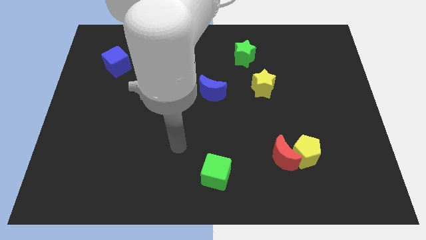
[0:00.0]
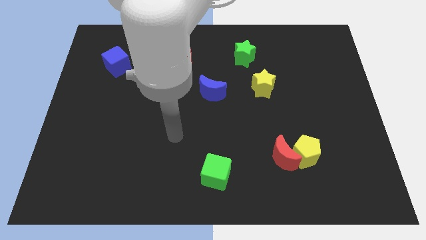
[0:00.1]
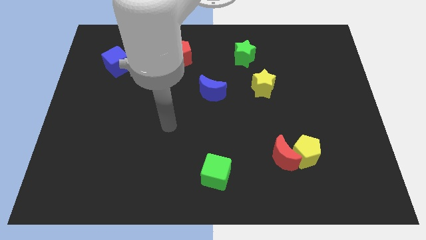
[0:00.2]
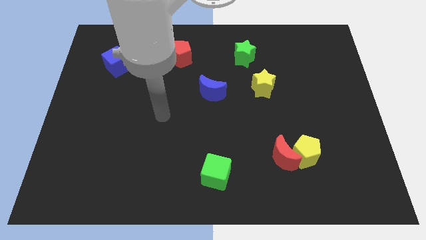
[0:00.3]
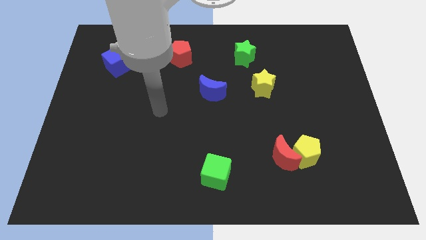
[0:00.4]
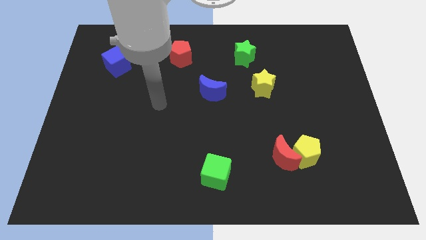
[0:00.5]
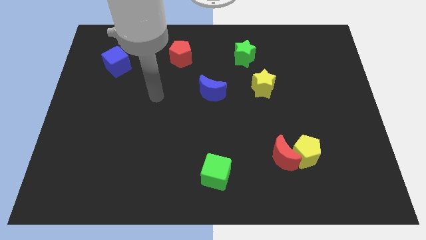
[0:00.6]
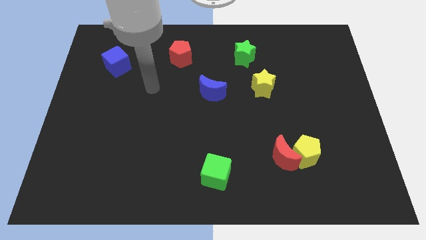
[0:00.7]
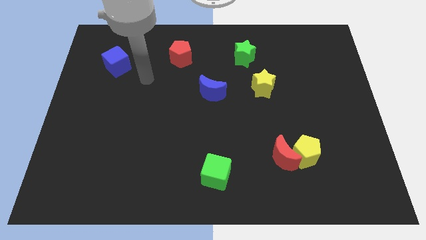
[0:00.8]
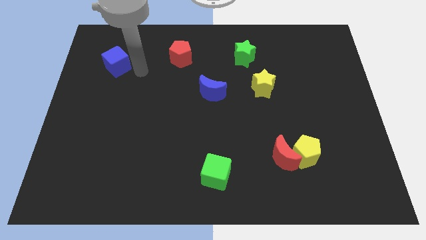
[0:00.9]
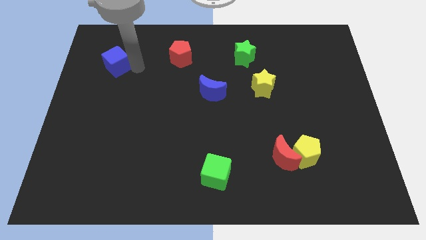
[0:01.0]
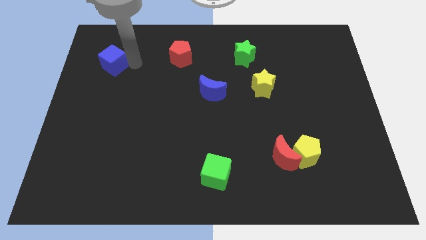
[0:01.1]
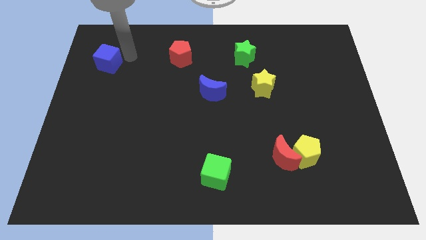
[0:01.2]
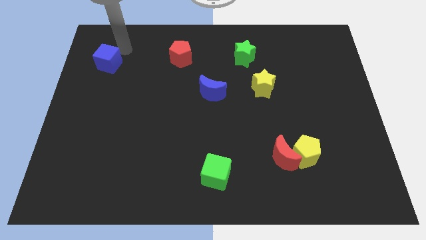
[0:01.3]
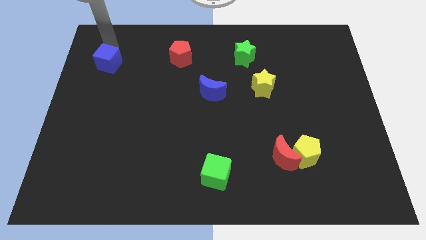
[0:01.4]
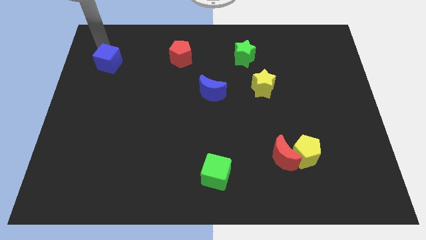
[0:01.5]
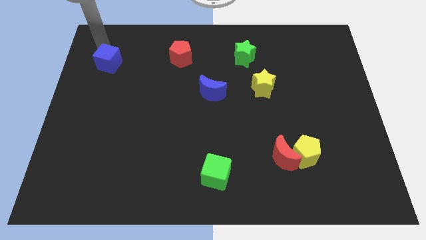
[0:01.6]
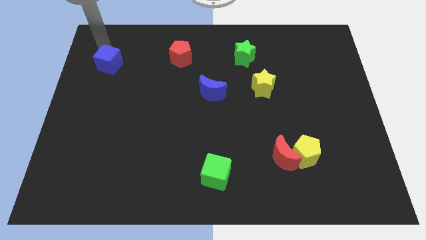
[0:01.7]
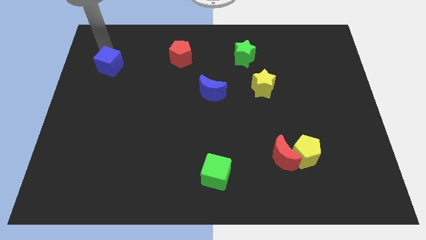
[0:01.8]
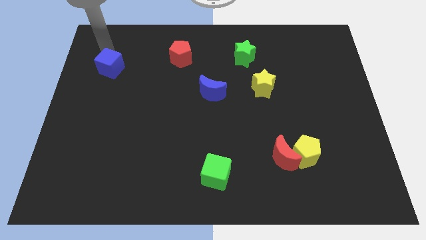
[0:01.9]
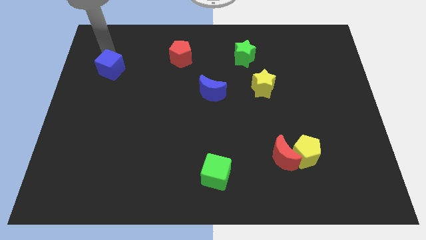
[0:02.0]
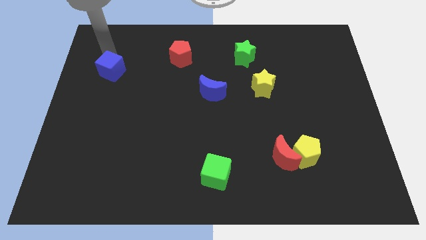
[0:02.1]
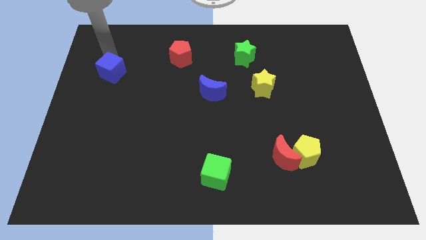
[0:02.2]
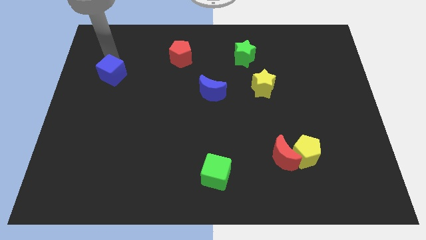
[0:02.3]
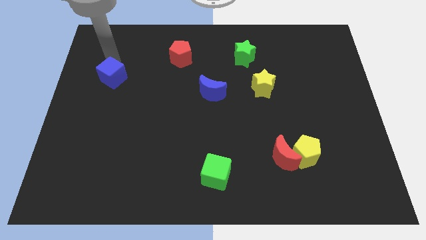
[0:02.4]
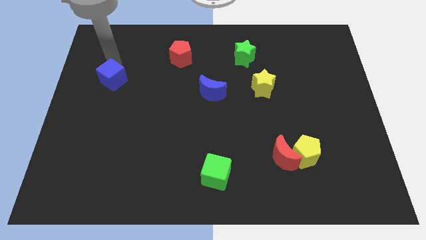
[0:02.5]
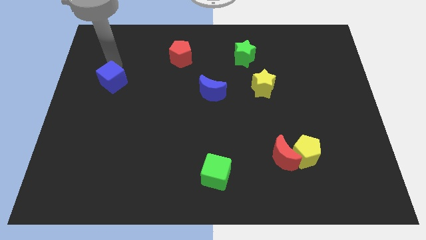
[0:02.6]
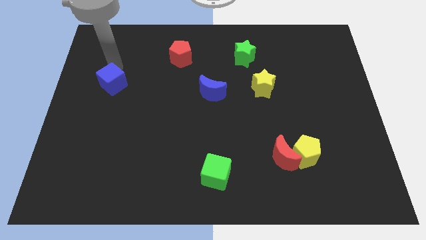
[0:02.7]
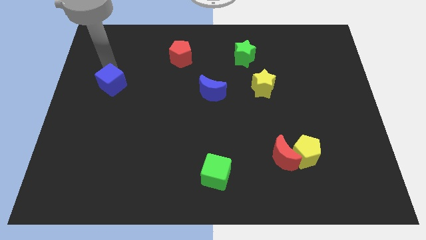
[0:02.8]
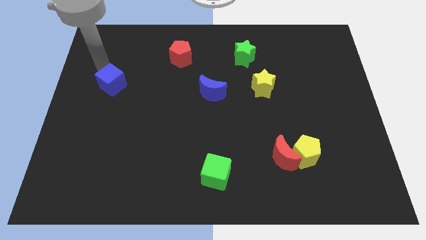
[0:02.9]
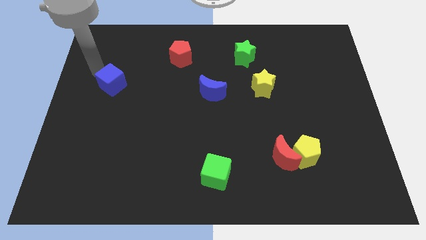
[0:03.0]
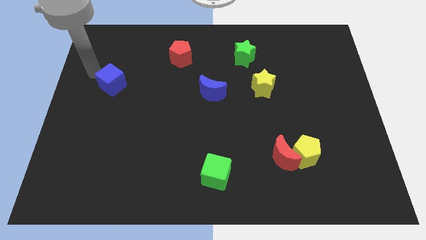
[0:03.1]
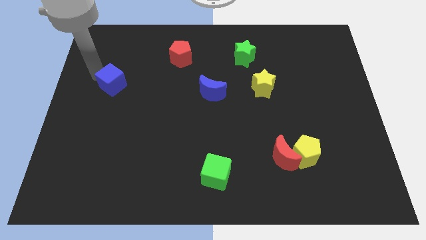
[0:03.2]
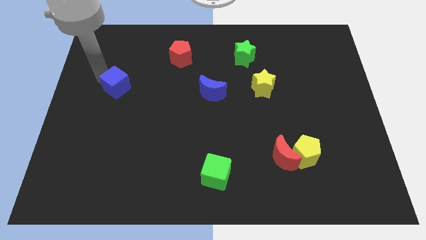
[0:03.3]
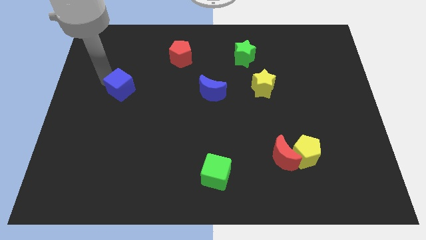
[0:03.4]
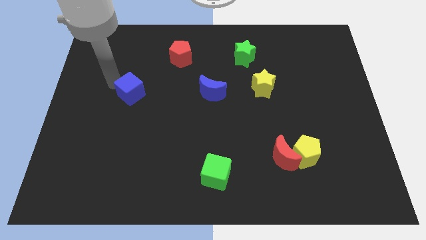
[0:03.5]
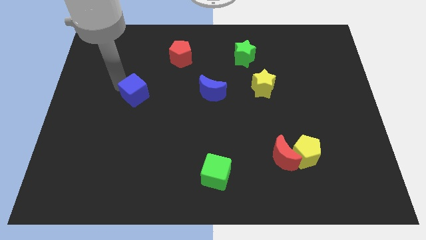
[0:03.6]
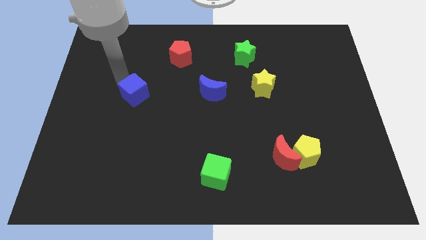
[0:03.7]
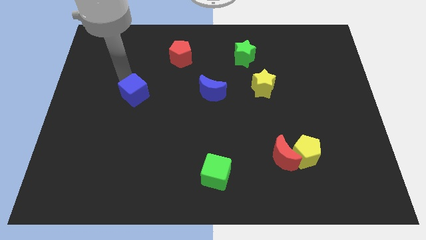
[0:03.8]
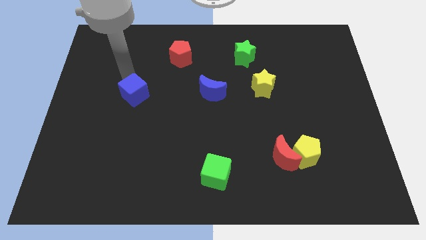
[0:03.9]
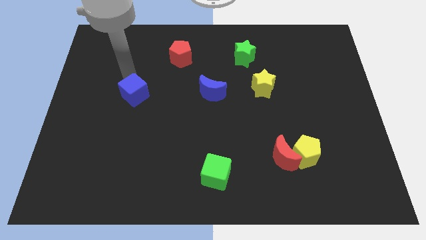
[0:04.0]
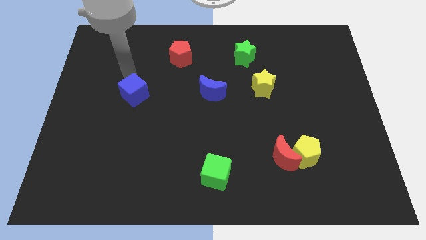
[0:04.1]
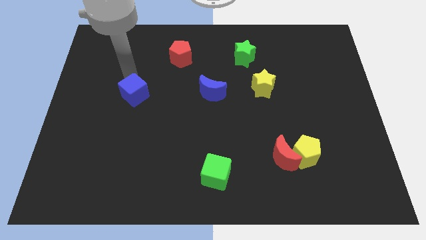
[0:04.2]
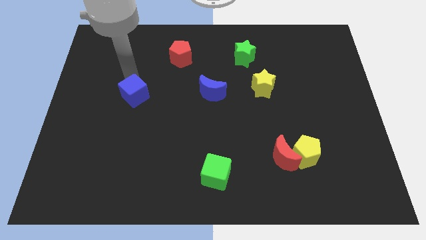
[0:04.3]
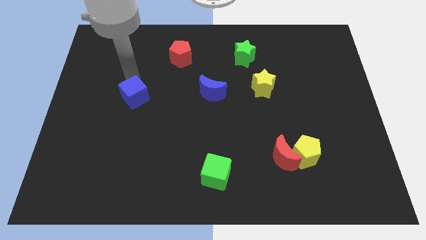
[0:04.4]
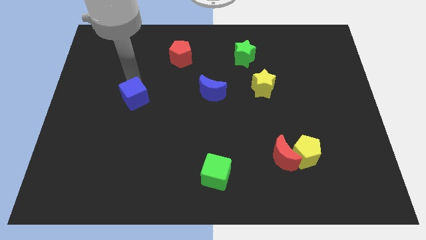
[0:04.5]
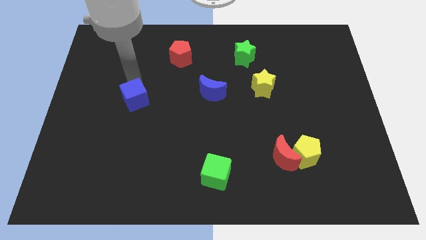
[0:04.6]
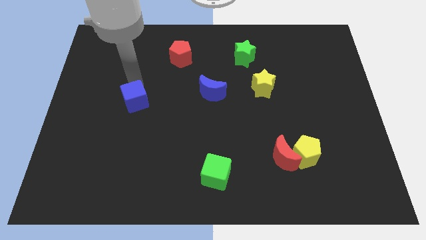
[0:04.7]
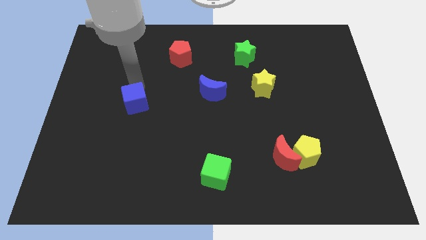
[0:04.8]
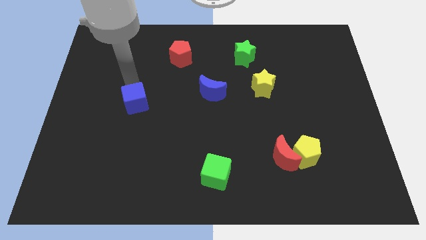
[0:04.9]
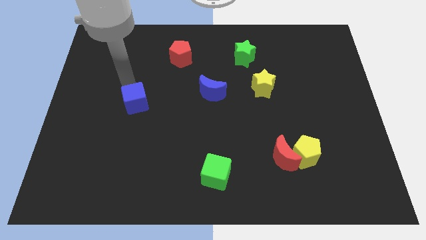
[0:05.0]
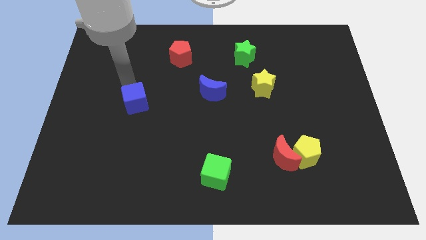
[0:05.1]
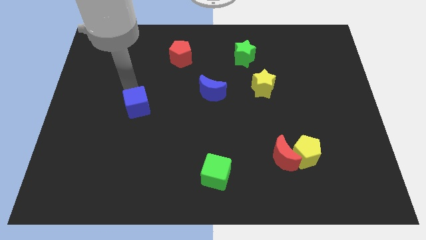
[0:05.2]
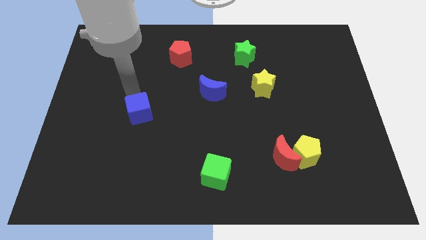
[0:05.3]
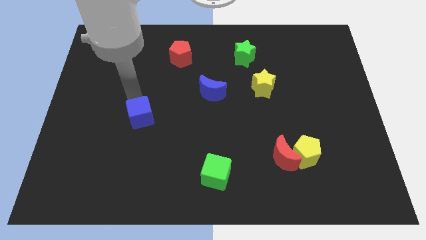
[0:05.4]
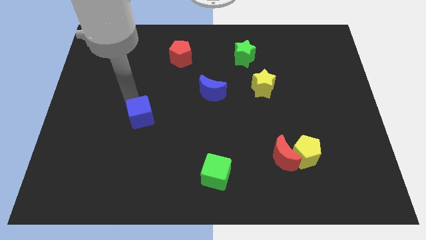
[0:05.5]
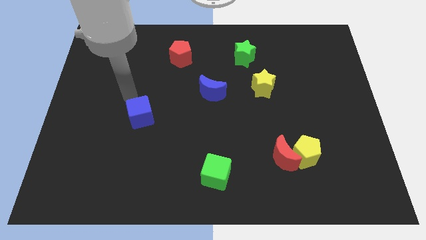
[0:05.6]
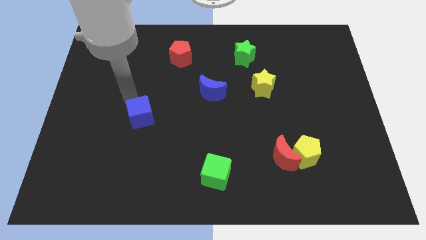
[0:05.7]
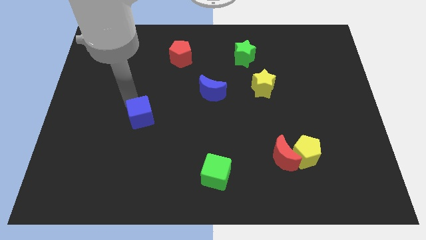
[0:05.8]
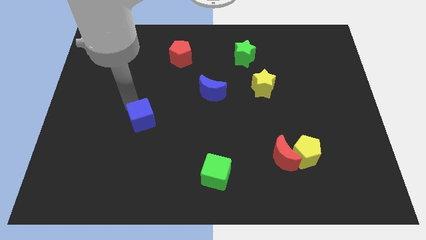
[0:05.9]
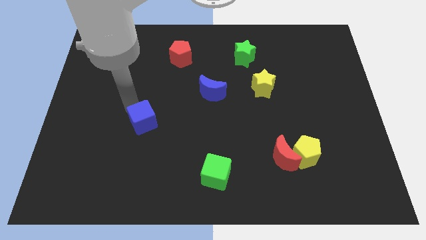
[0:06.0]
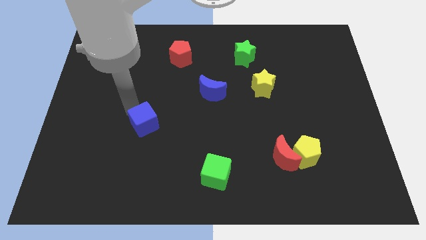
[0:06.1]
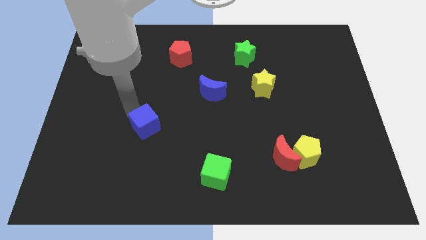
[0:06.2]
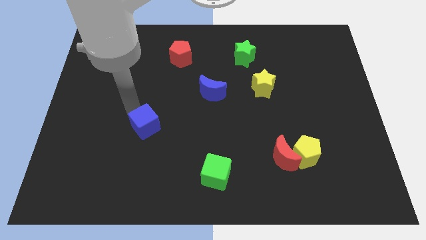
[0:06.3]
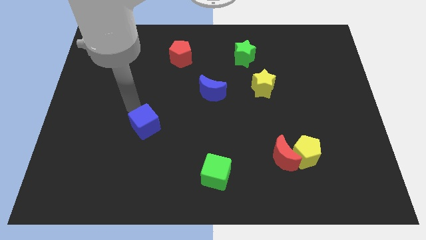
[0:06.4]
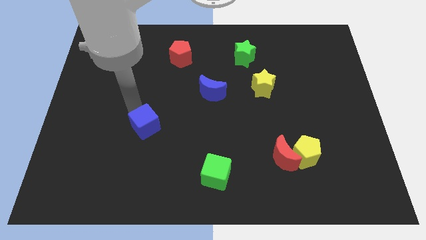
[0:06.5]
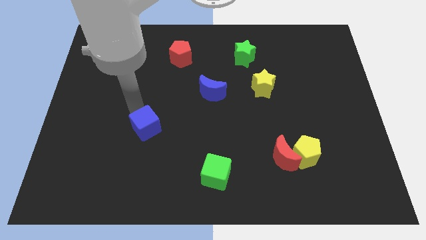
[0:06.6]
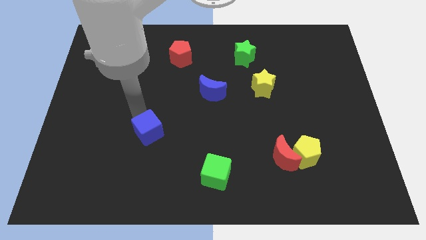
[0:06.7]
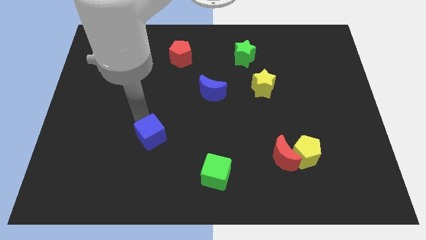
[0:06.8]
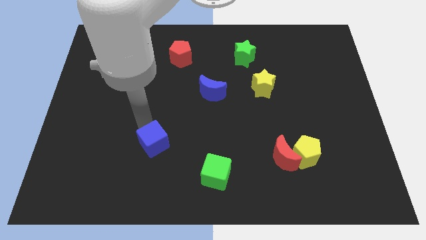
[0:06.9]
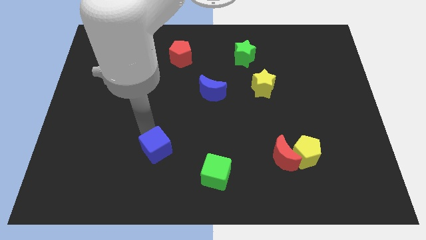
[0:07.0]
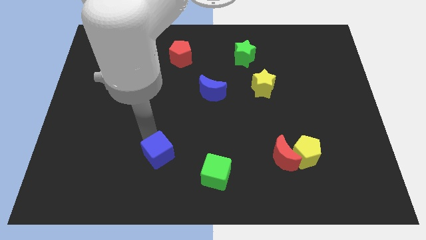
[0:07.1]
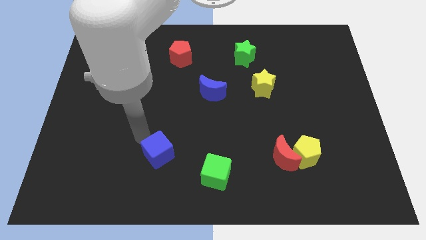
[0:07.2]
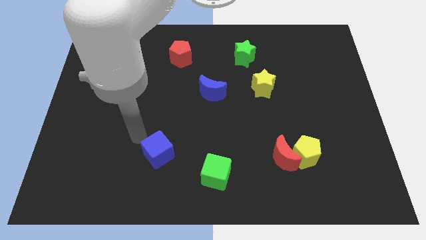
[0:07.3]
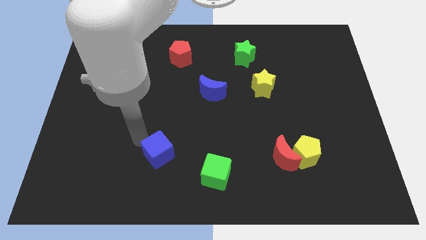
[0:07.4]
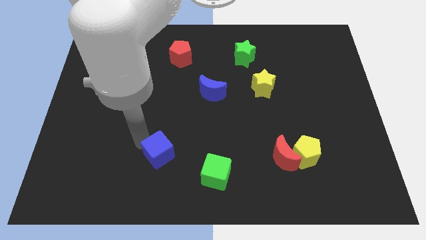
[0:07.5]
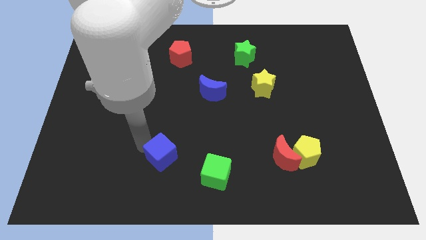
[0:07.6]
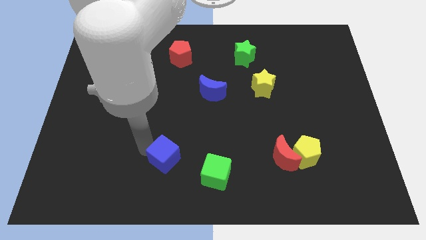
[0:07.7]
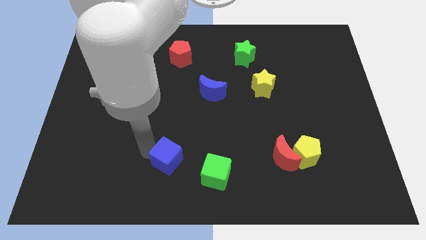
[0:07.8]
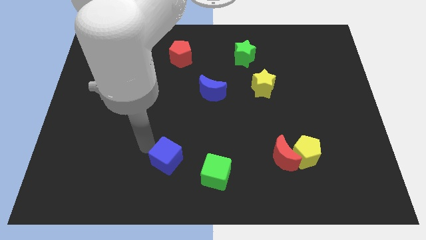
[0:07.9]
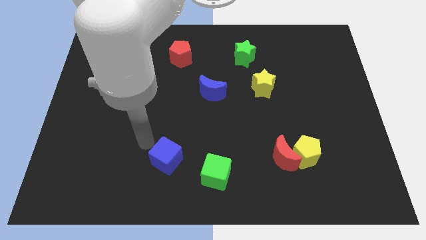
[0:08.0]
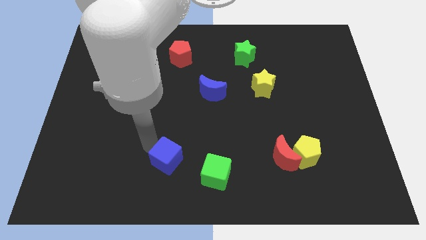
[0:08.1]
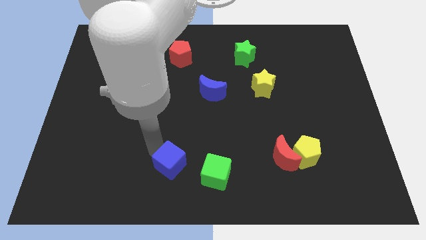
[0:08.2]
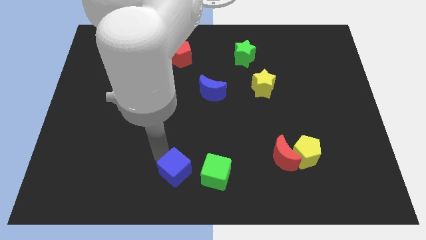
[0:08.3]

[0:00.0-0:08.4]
push the blue cube to the bottom
